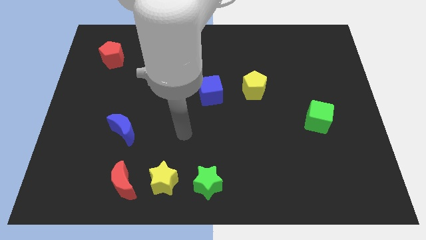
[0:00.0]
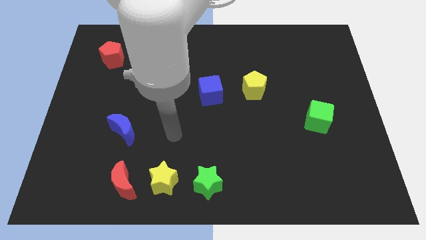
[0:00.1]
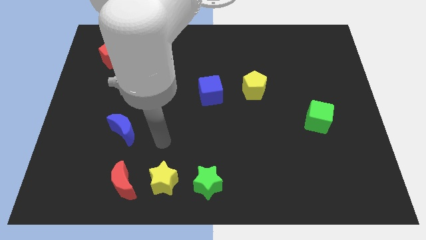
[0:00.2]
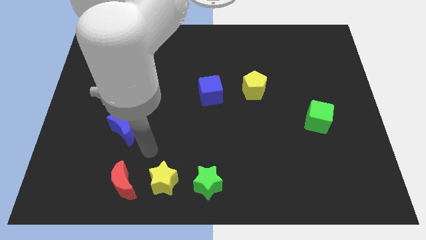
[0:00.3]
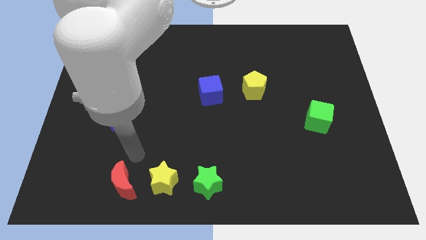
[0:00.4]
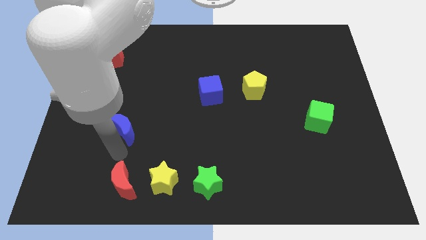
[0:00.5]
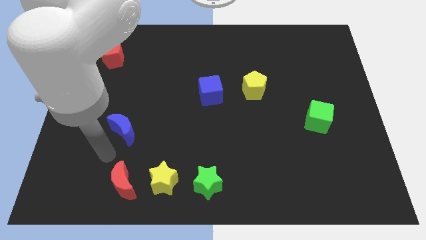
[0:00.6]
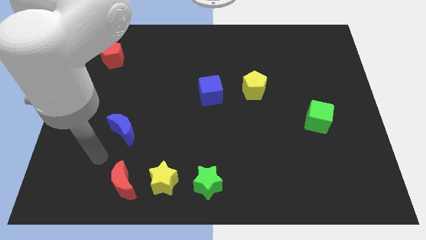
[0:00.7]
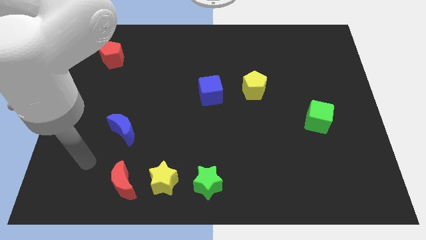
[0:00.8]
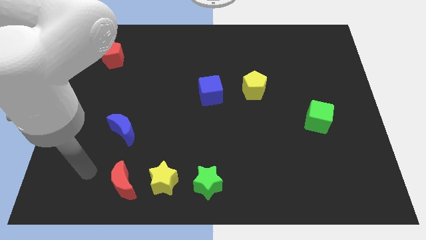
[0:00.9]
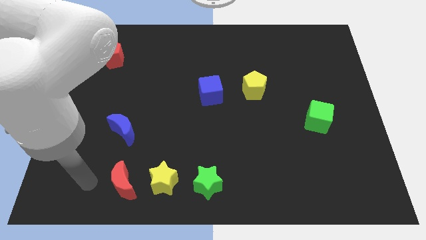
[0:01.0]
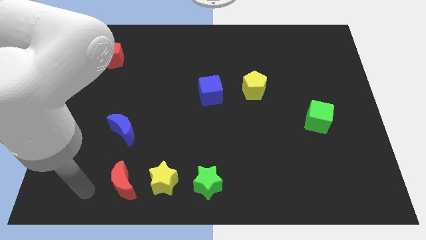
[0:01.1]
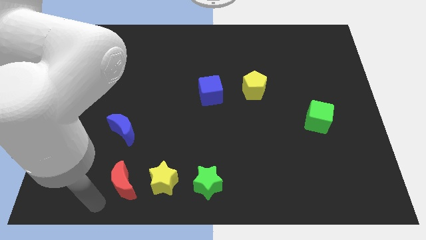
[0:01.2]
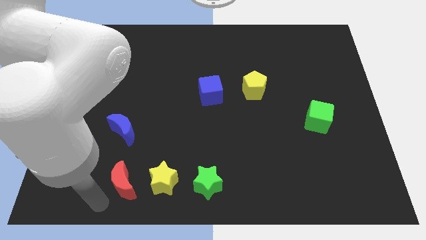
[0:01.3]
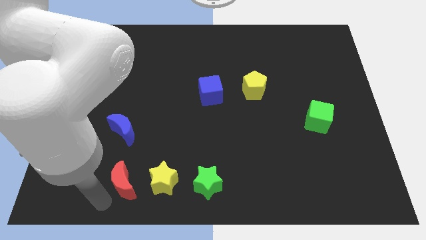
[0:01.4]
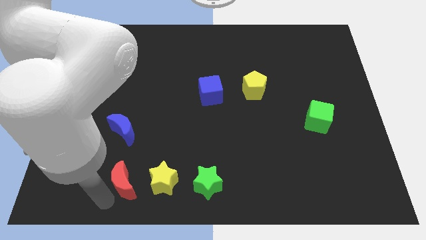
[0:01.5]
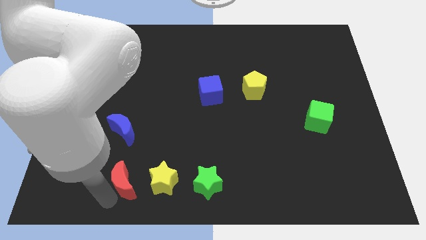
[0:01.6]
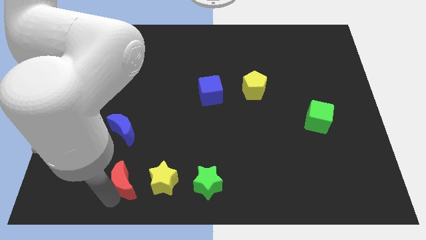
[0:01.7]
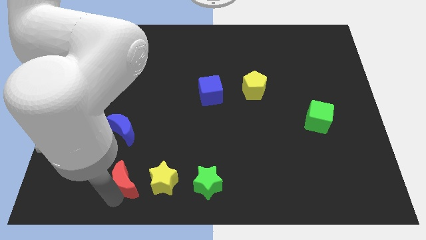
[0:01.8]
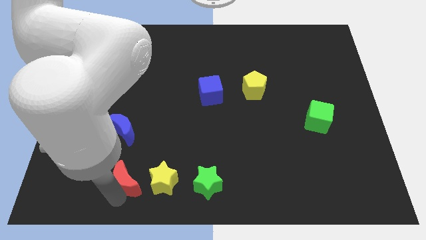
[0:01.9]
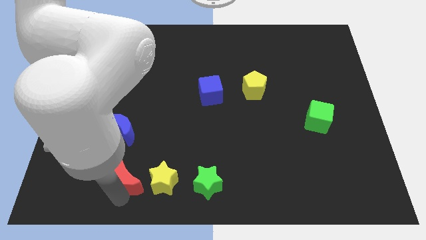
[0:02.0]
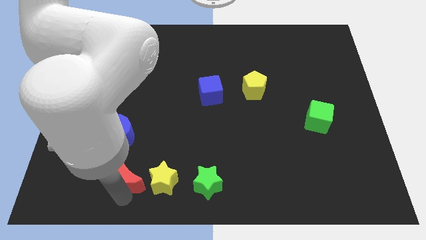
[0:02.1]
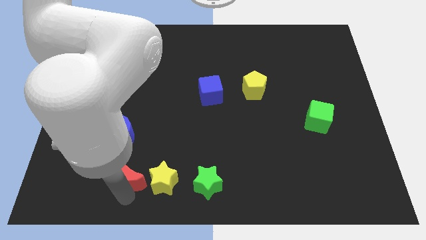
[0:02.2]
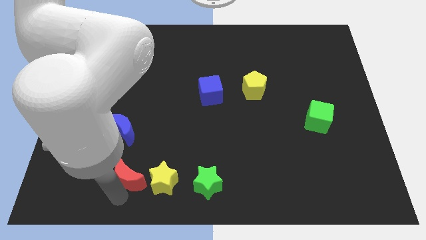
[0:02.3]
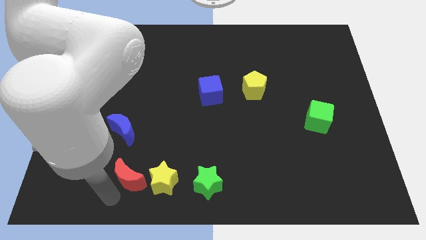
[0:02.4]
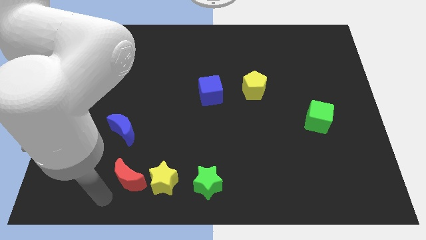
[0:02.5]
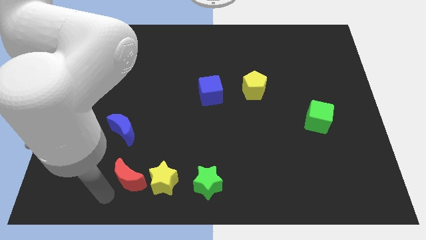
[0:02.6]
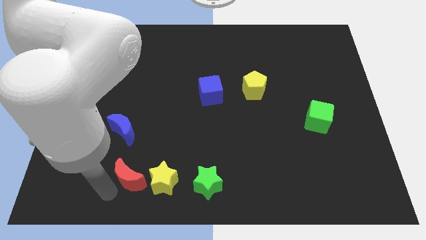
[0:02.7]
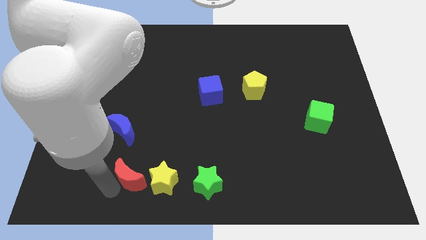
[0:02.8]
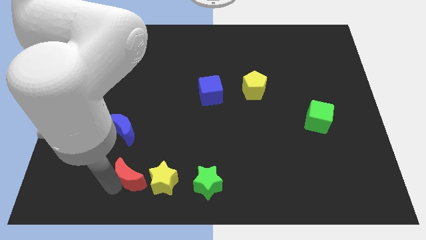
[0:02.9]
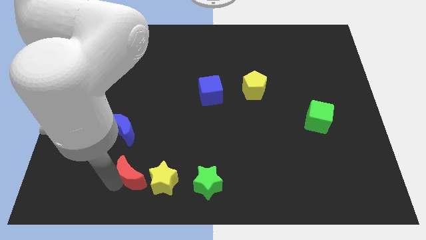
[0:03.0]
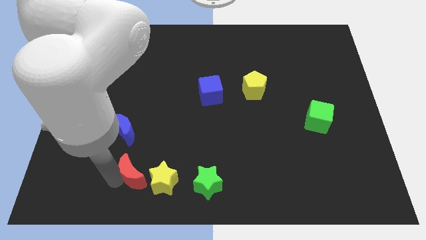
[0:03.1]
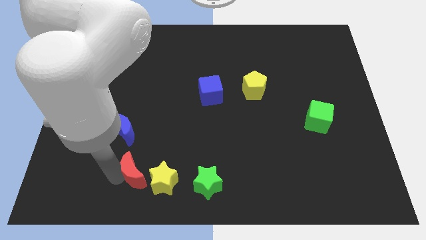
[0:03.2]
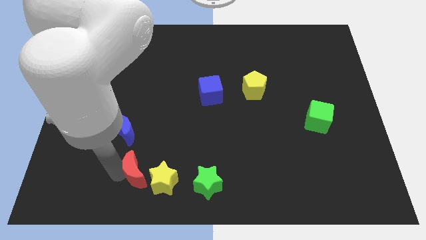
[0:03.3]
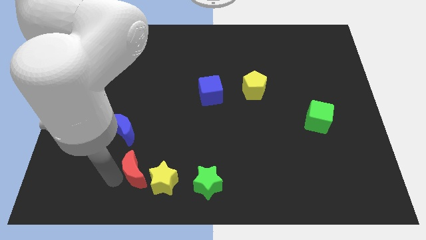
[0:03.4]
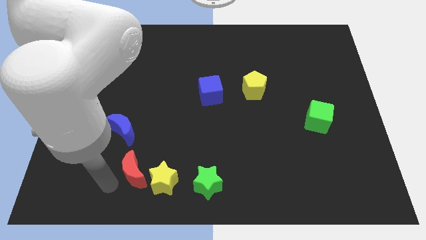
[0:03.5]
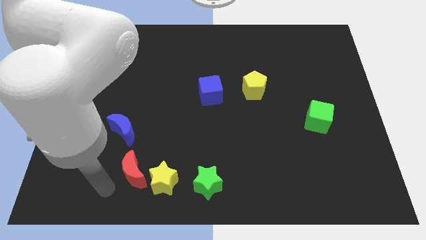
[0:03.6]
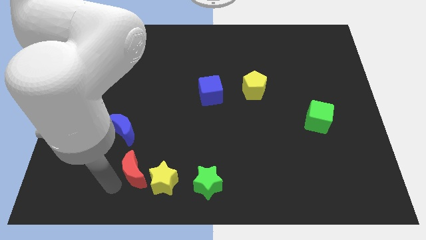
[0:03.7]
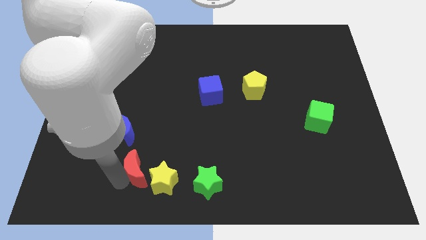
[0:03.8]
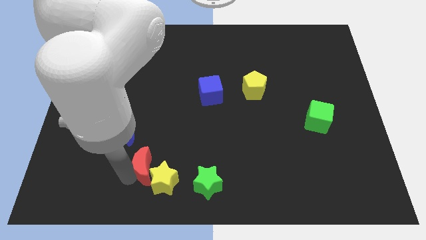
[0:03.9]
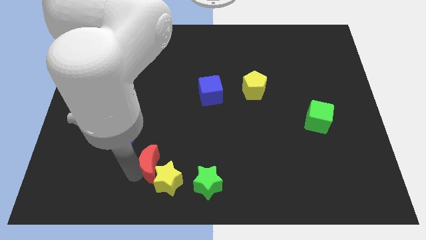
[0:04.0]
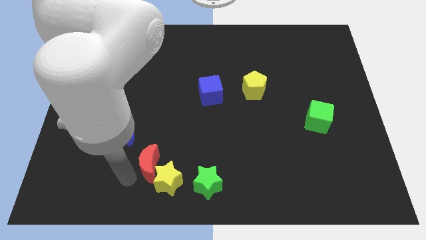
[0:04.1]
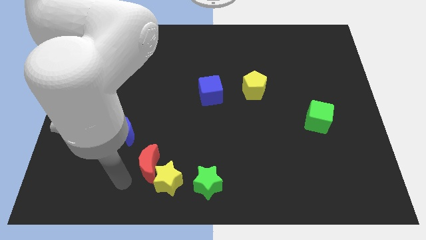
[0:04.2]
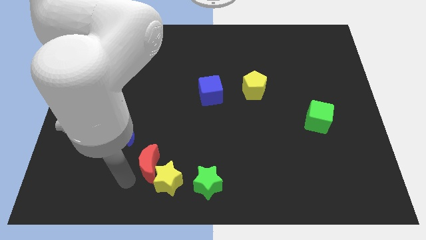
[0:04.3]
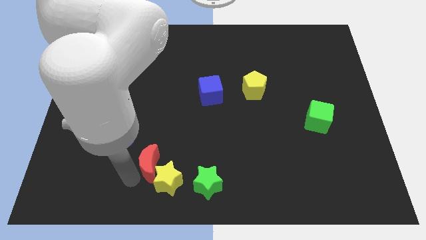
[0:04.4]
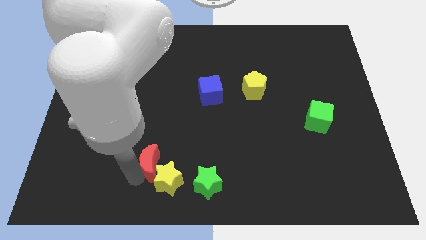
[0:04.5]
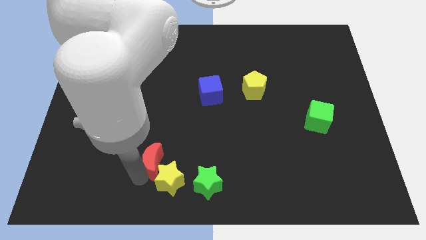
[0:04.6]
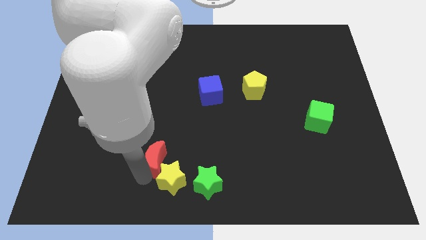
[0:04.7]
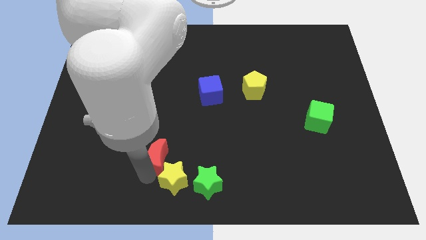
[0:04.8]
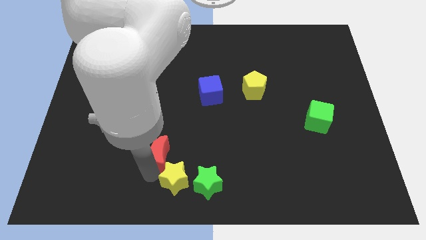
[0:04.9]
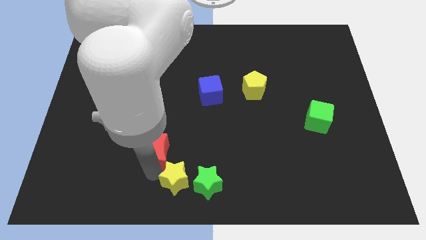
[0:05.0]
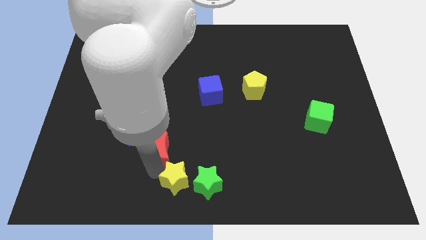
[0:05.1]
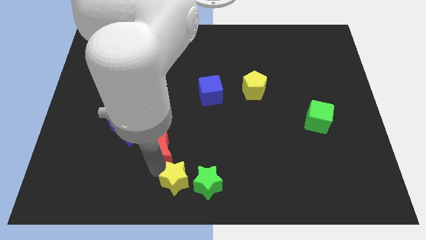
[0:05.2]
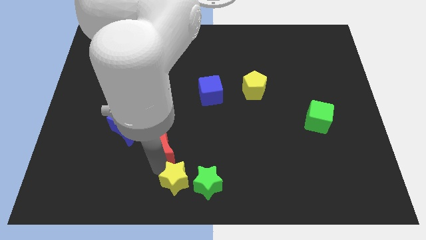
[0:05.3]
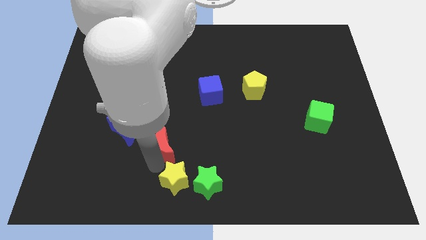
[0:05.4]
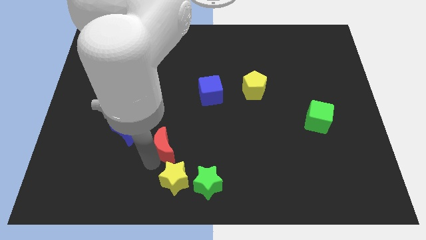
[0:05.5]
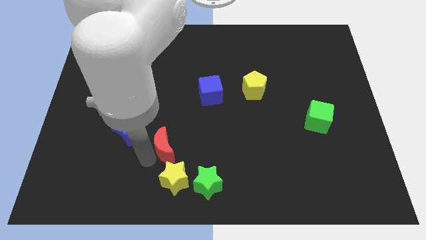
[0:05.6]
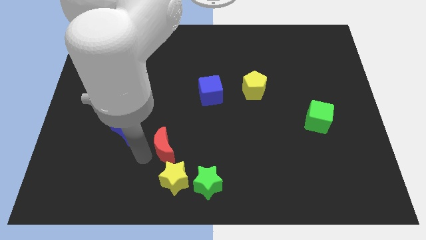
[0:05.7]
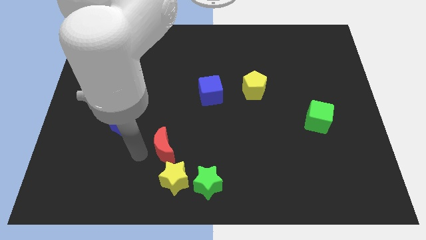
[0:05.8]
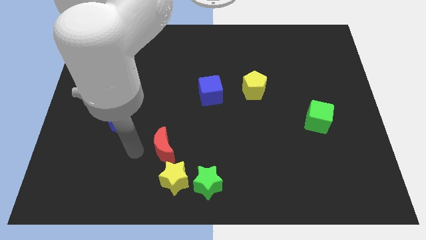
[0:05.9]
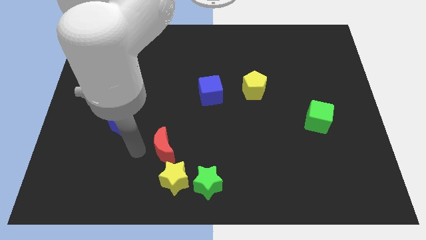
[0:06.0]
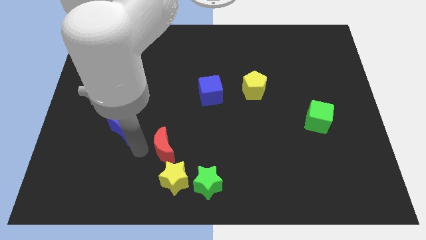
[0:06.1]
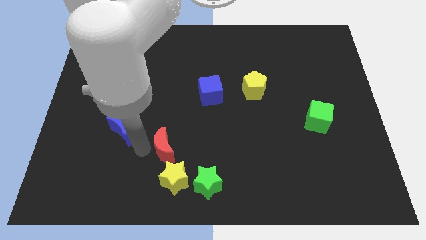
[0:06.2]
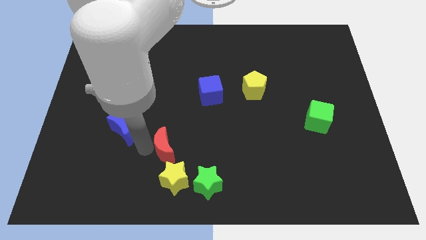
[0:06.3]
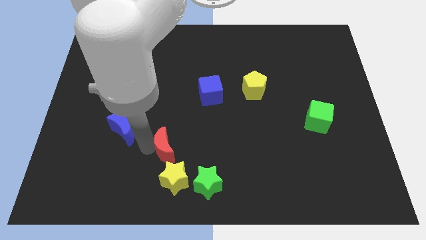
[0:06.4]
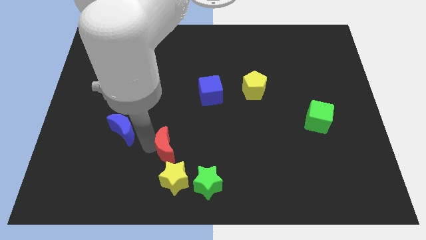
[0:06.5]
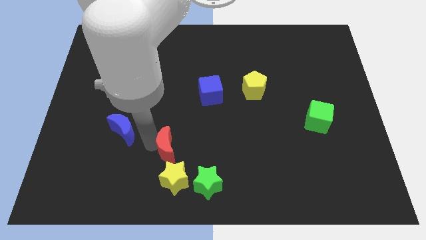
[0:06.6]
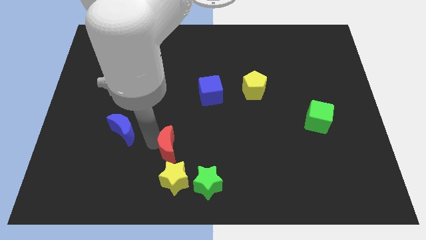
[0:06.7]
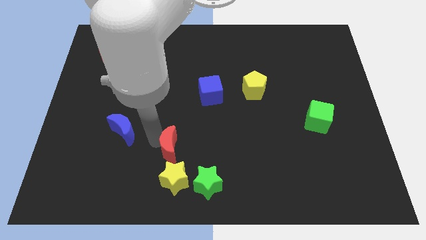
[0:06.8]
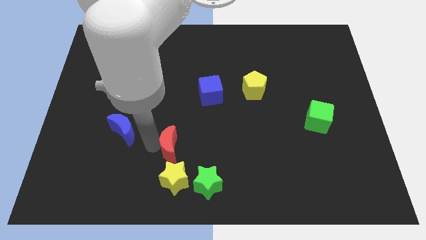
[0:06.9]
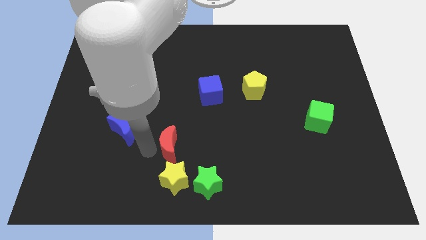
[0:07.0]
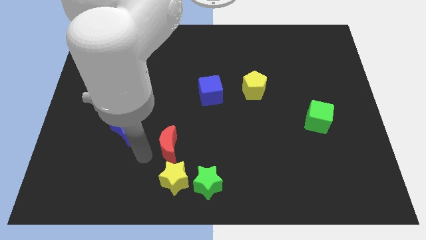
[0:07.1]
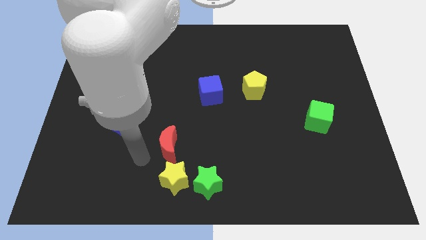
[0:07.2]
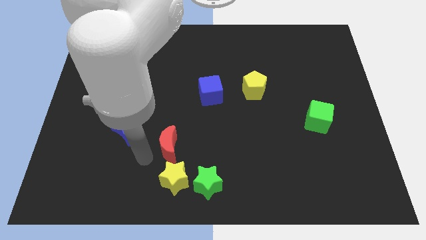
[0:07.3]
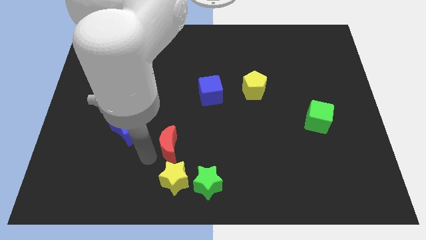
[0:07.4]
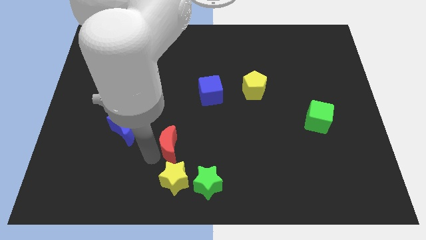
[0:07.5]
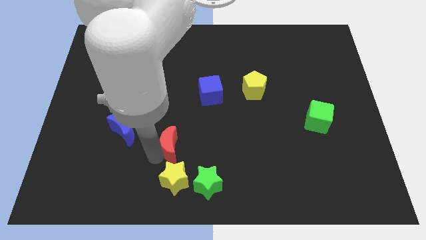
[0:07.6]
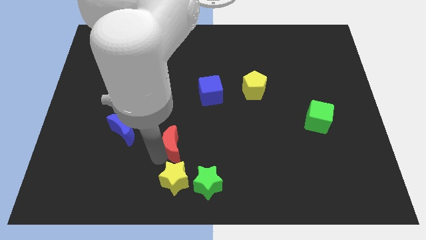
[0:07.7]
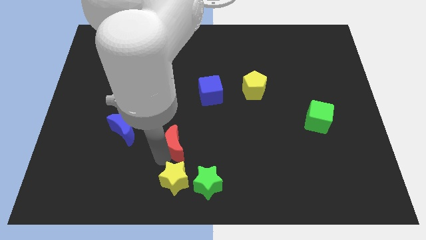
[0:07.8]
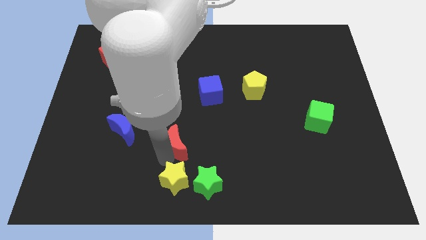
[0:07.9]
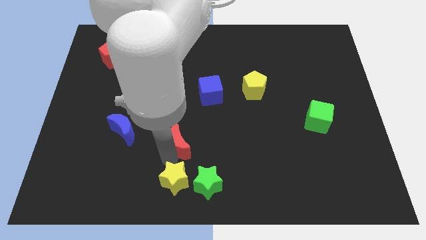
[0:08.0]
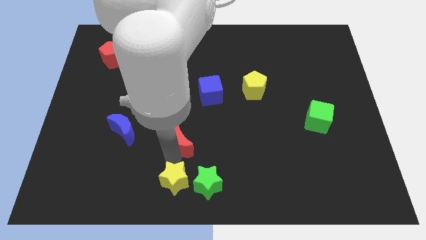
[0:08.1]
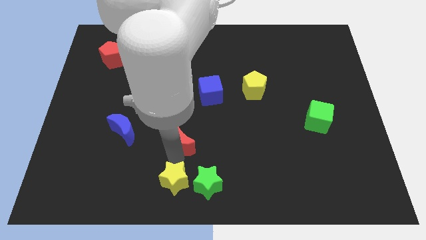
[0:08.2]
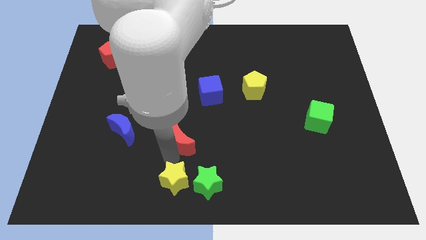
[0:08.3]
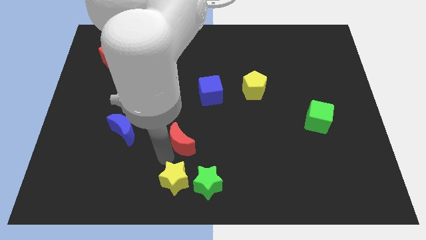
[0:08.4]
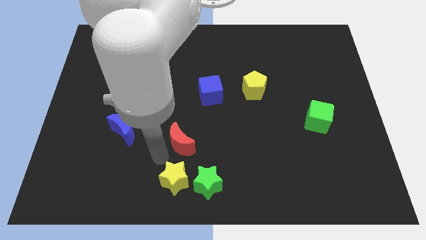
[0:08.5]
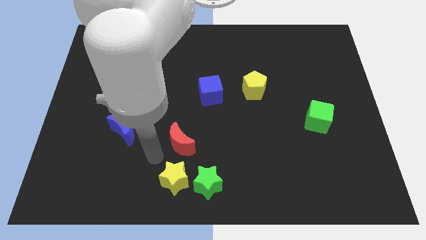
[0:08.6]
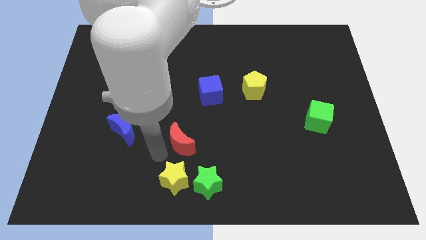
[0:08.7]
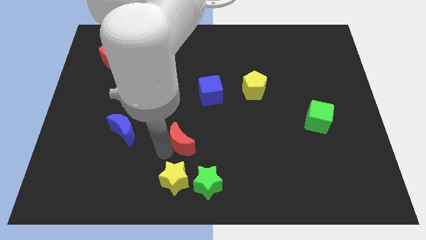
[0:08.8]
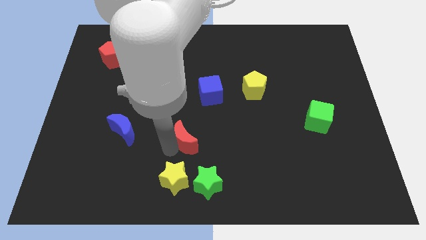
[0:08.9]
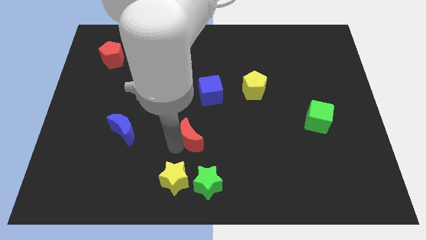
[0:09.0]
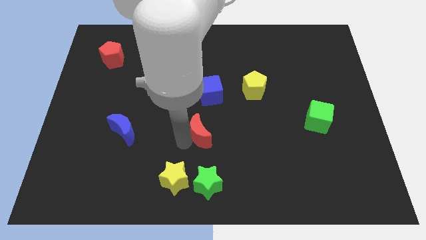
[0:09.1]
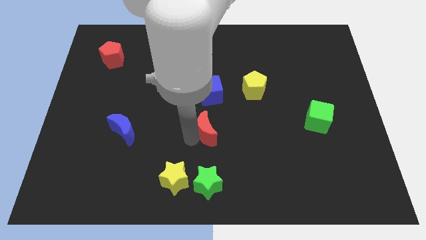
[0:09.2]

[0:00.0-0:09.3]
move the red moon upwards and to the right
